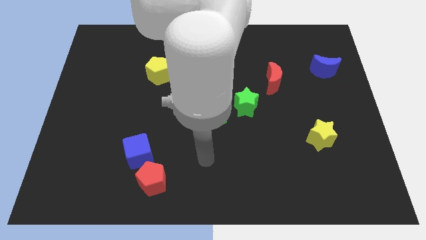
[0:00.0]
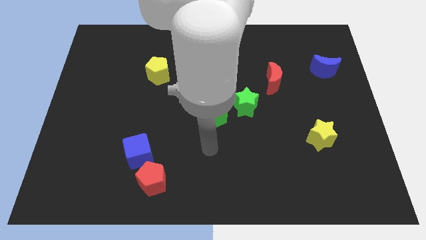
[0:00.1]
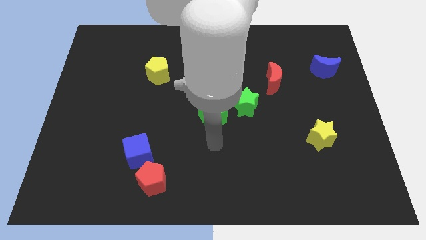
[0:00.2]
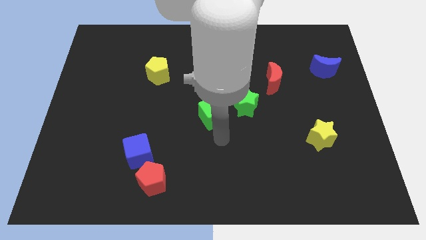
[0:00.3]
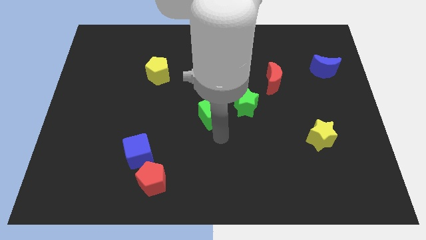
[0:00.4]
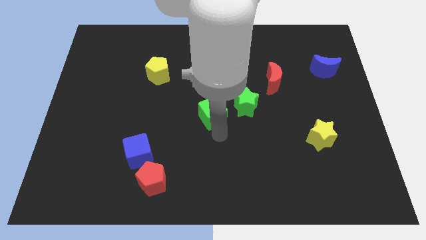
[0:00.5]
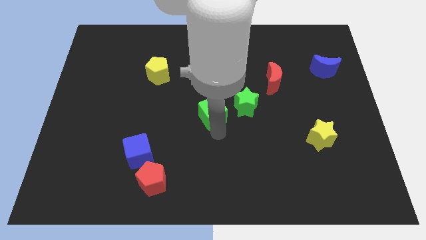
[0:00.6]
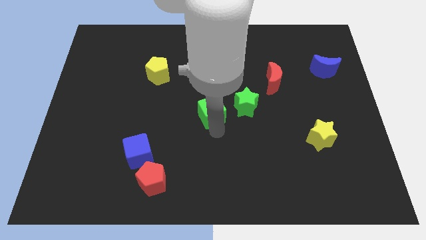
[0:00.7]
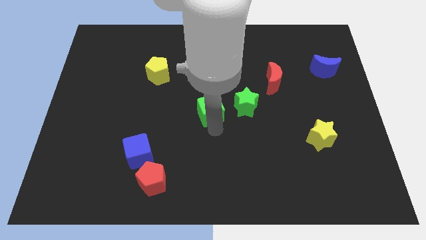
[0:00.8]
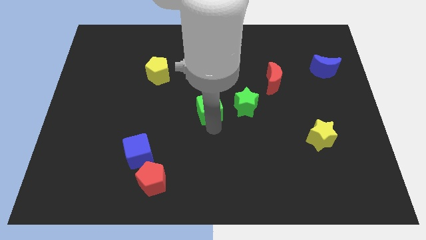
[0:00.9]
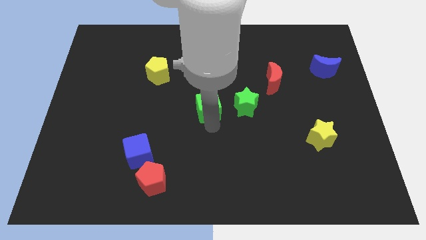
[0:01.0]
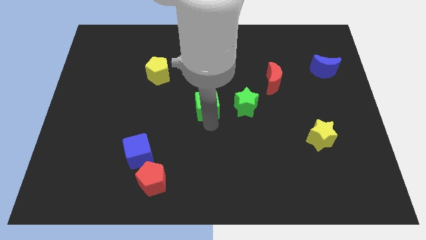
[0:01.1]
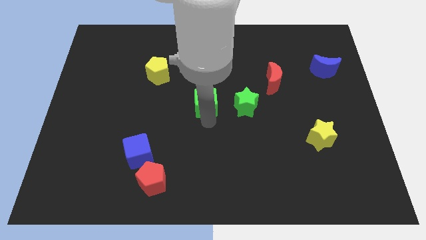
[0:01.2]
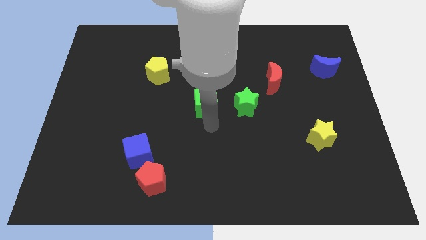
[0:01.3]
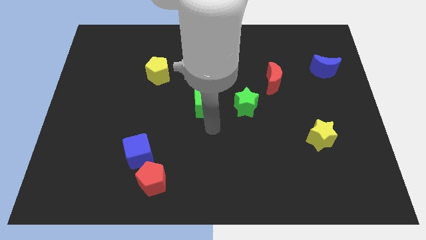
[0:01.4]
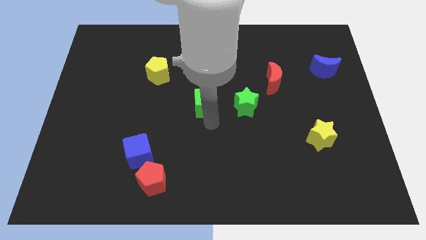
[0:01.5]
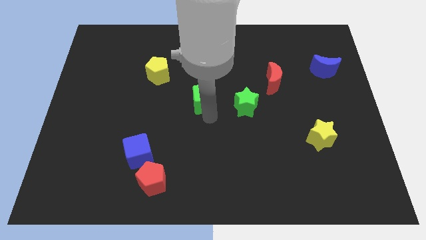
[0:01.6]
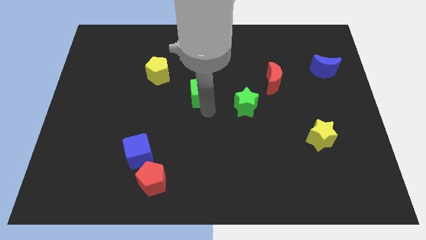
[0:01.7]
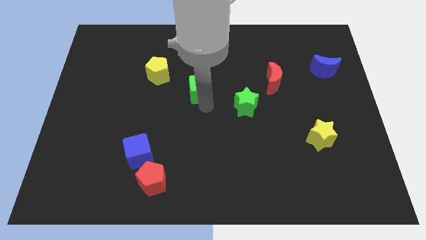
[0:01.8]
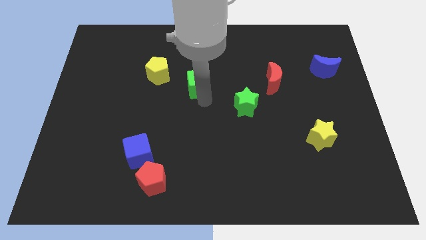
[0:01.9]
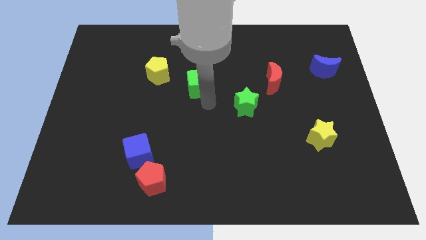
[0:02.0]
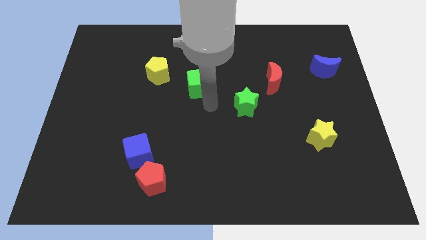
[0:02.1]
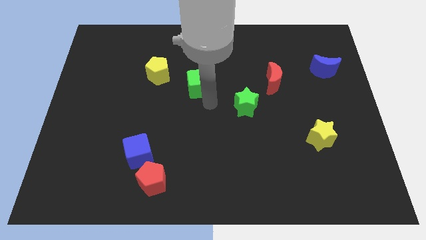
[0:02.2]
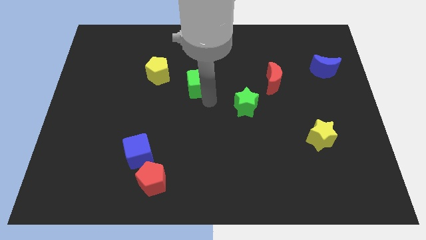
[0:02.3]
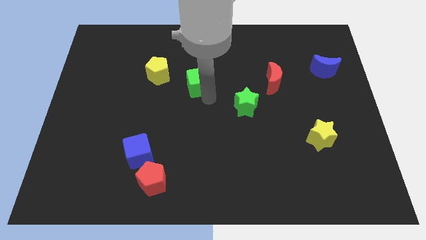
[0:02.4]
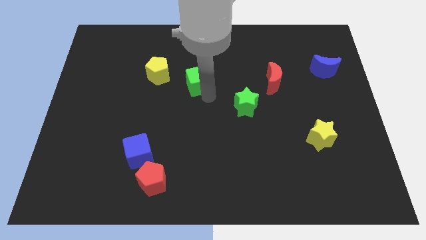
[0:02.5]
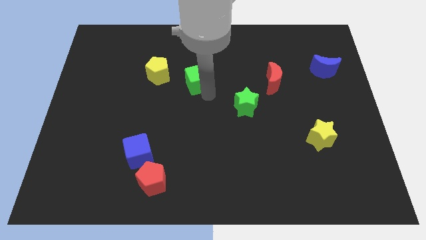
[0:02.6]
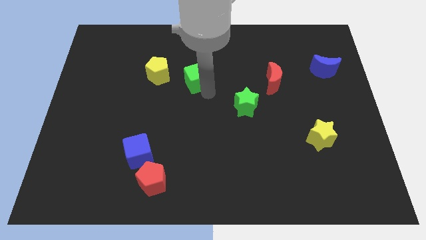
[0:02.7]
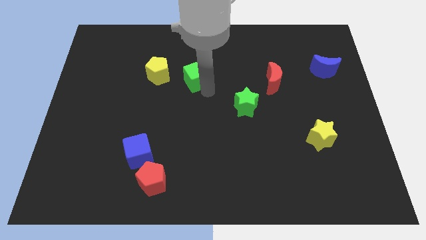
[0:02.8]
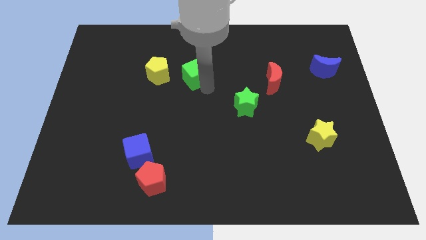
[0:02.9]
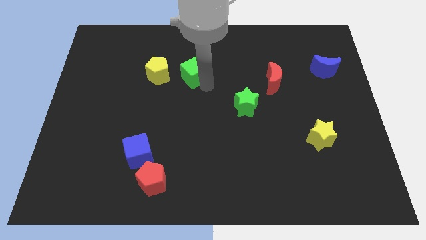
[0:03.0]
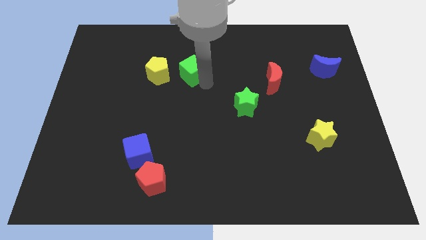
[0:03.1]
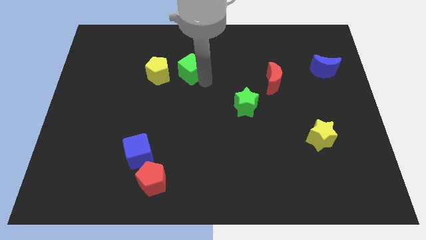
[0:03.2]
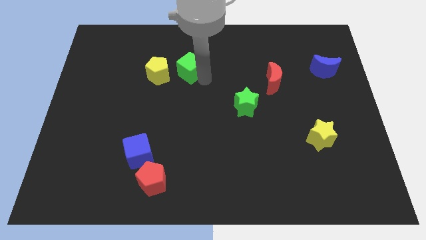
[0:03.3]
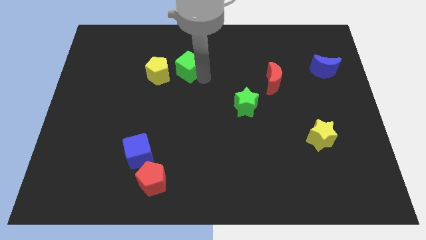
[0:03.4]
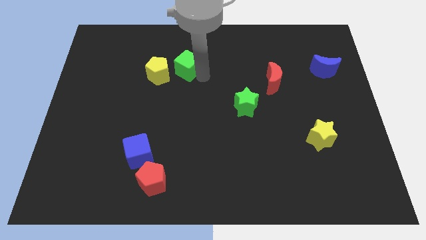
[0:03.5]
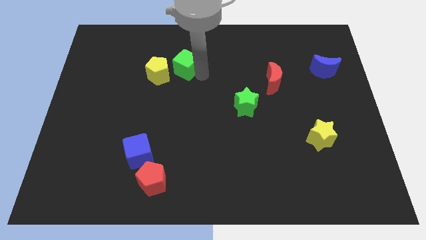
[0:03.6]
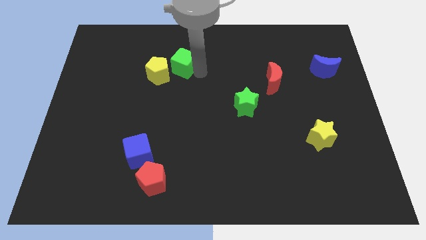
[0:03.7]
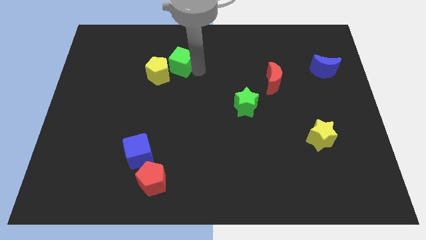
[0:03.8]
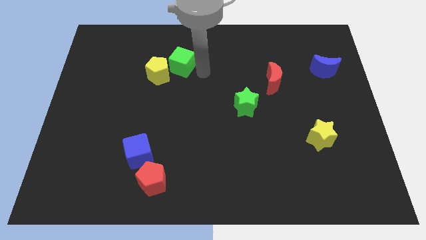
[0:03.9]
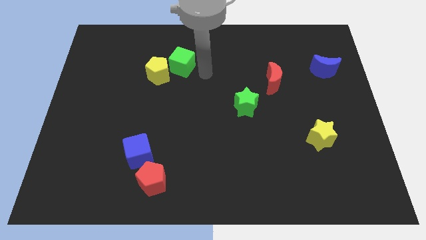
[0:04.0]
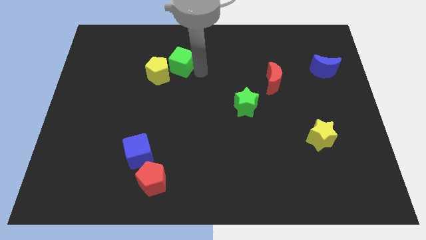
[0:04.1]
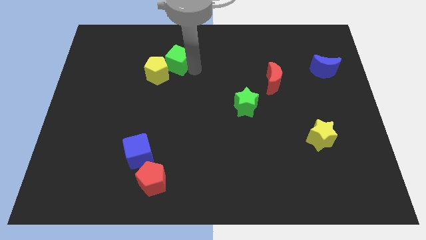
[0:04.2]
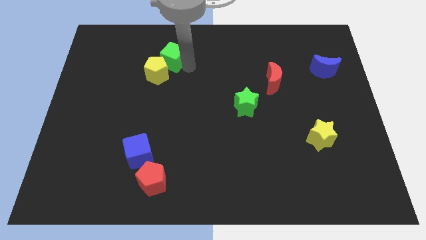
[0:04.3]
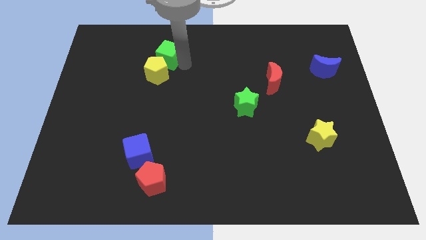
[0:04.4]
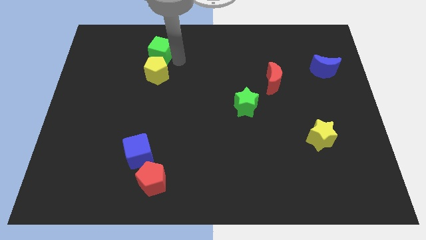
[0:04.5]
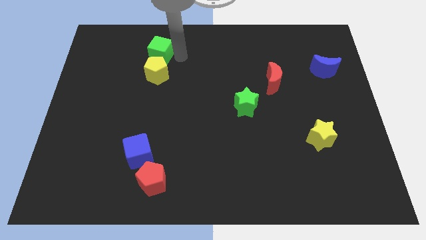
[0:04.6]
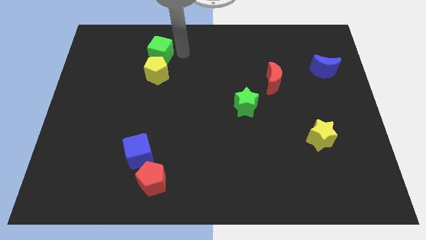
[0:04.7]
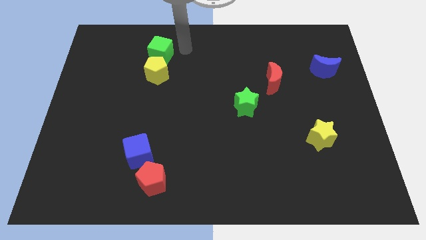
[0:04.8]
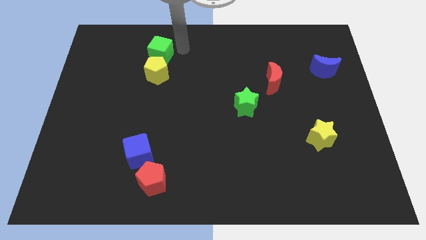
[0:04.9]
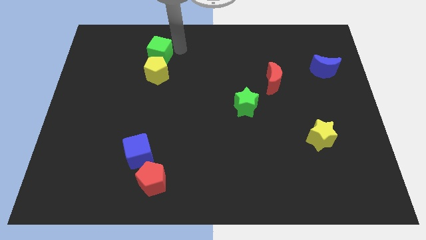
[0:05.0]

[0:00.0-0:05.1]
push the green cube to the top left of the yellow pentagon

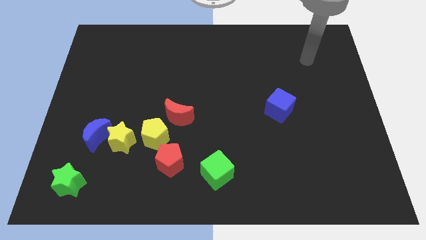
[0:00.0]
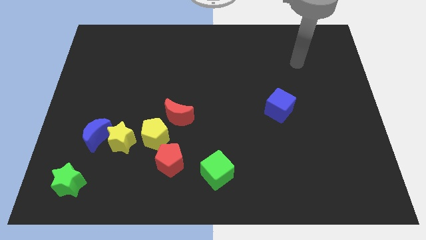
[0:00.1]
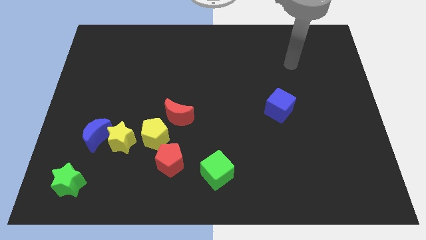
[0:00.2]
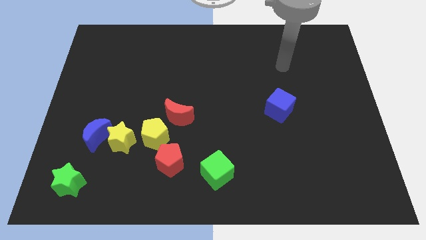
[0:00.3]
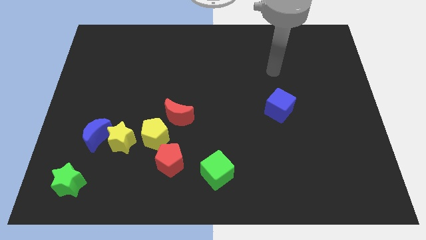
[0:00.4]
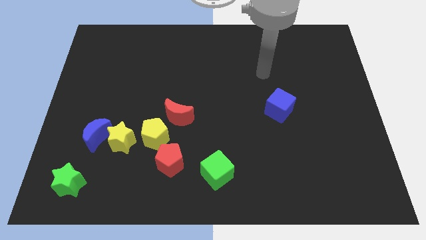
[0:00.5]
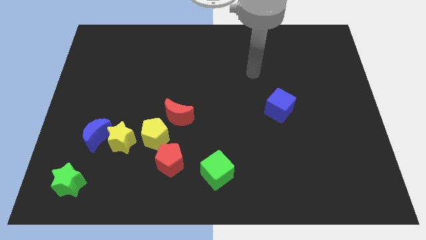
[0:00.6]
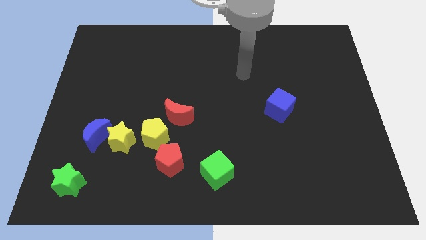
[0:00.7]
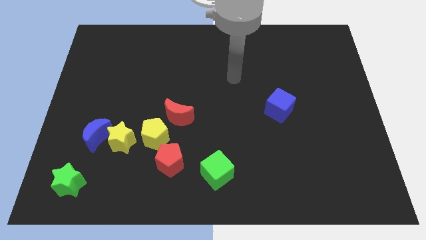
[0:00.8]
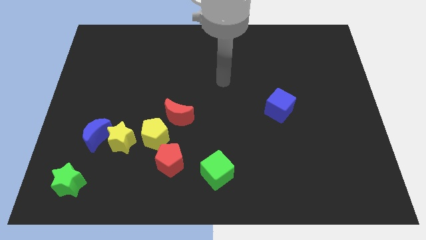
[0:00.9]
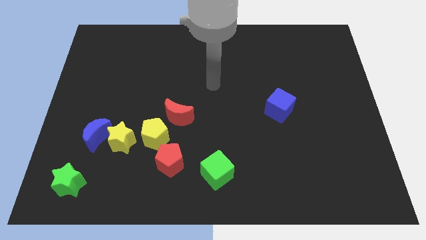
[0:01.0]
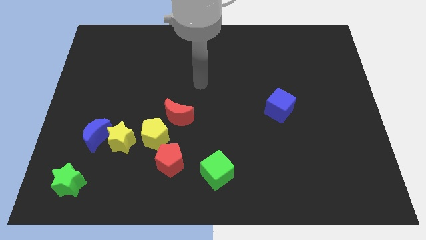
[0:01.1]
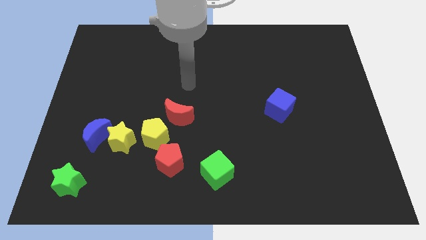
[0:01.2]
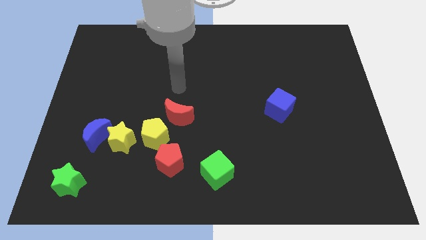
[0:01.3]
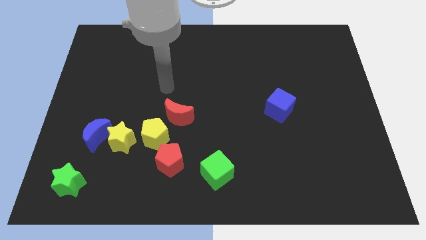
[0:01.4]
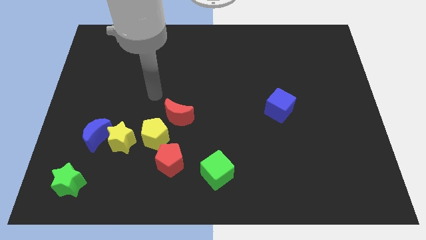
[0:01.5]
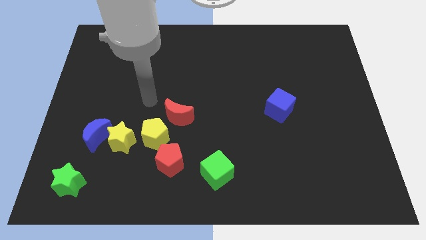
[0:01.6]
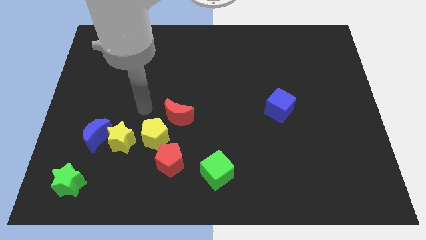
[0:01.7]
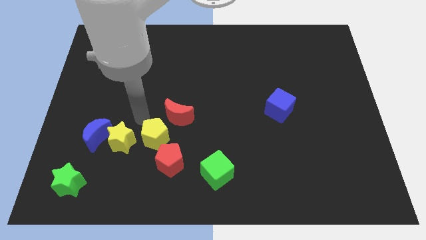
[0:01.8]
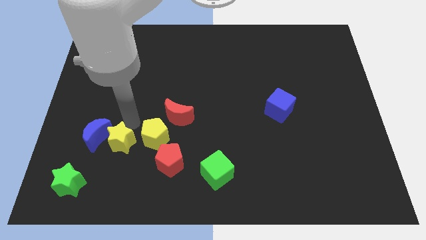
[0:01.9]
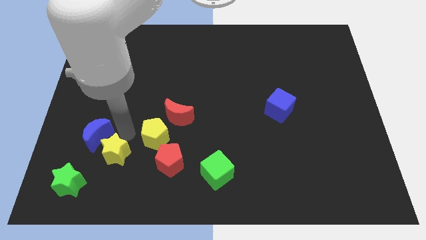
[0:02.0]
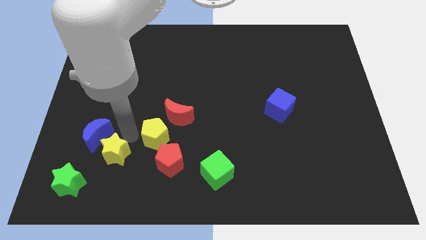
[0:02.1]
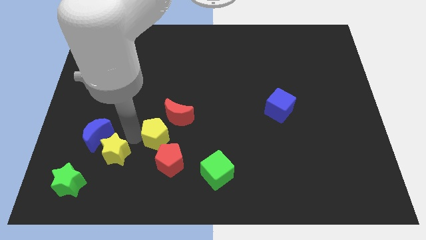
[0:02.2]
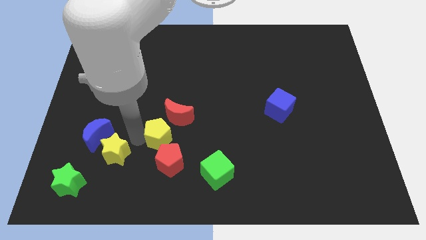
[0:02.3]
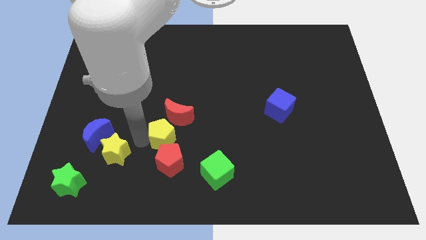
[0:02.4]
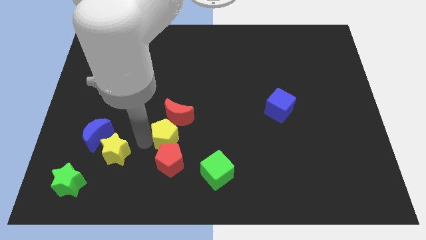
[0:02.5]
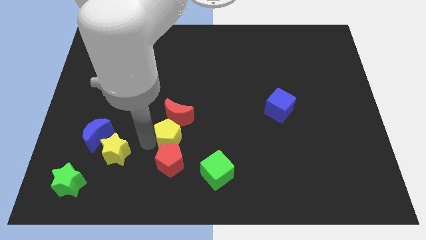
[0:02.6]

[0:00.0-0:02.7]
push the yellow pentagon to the top right of the red pentagon
